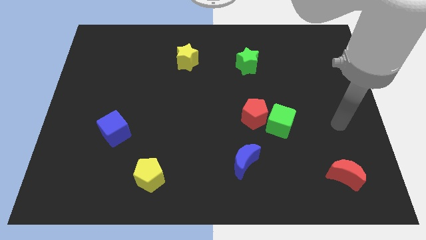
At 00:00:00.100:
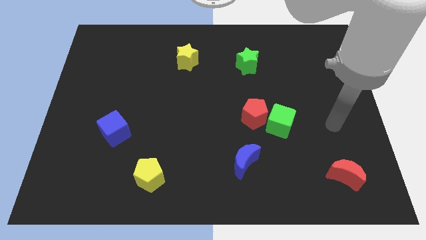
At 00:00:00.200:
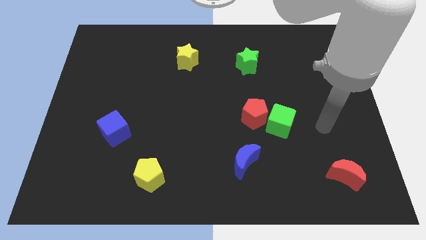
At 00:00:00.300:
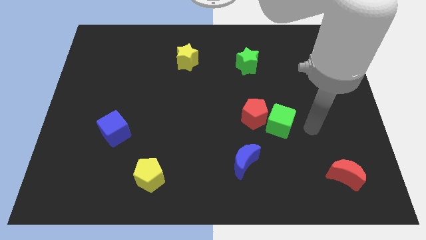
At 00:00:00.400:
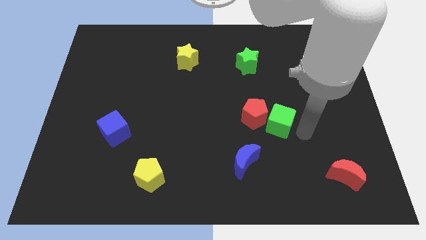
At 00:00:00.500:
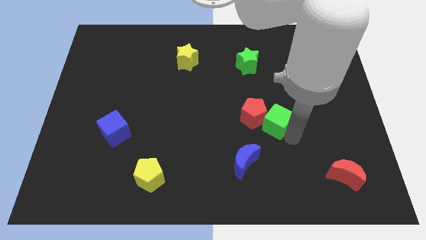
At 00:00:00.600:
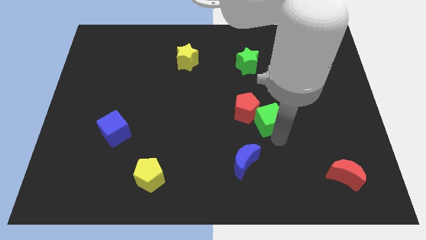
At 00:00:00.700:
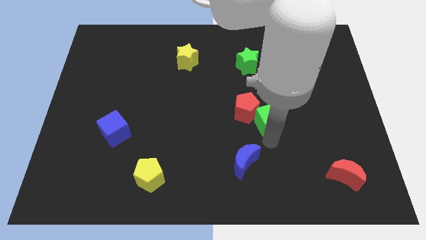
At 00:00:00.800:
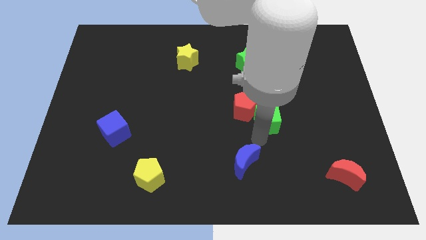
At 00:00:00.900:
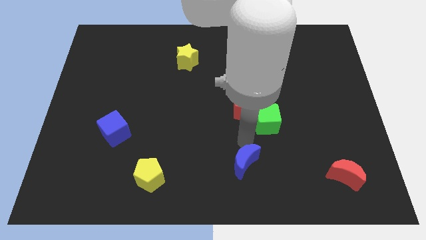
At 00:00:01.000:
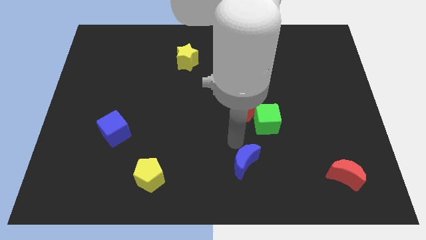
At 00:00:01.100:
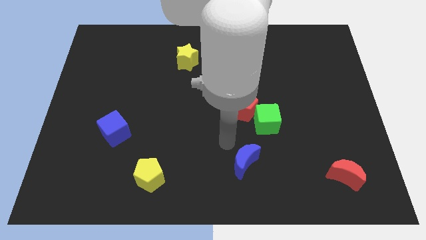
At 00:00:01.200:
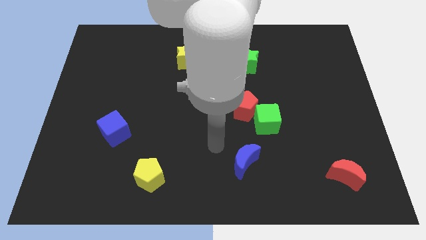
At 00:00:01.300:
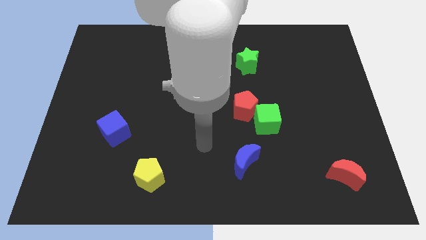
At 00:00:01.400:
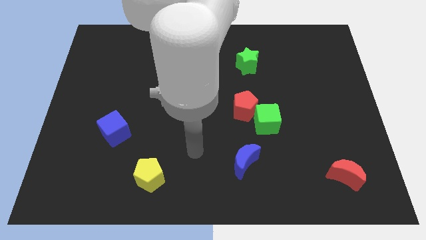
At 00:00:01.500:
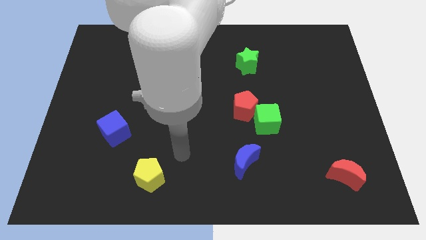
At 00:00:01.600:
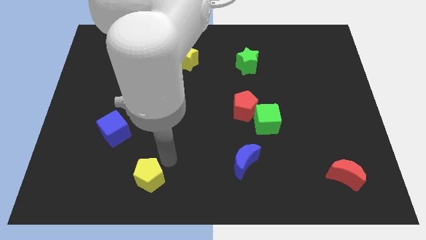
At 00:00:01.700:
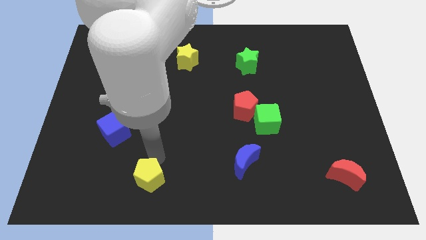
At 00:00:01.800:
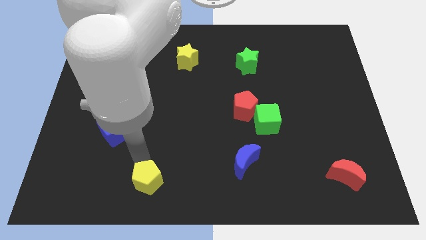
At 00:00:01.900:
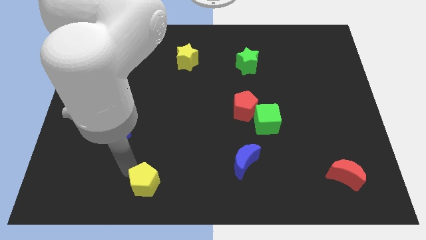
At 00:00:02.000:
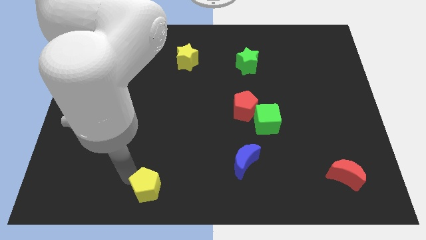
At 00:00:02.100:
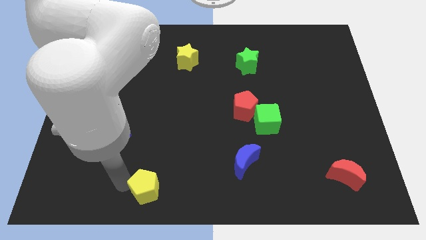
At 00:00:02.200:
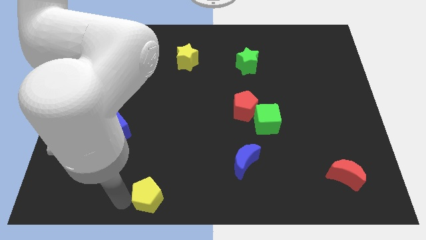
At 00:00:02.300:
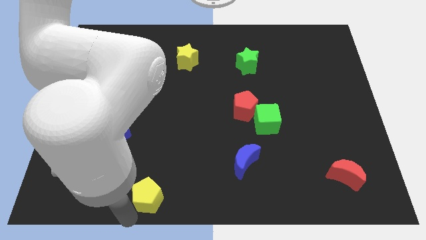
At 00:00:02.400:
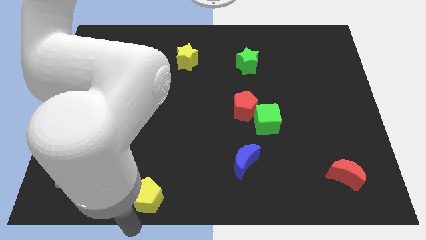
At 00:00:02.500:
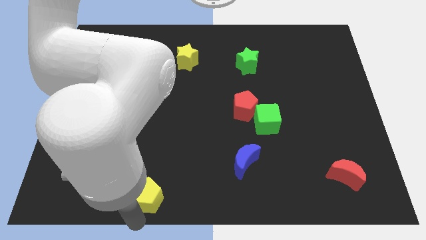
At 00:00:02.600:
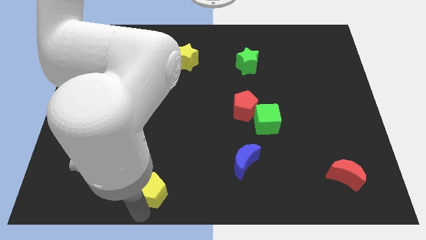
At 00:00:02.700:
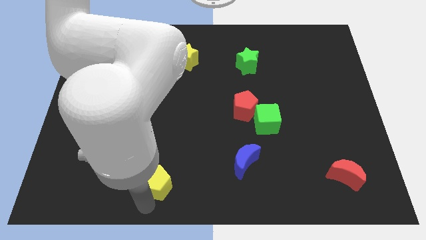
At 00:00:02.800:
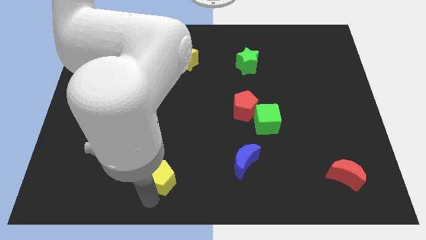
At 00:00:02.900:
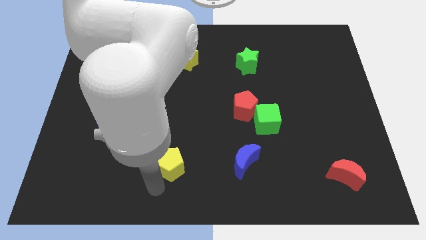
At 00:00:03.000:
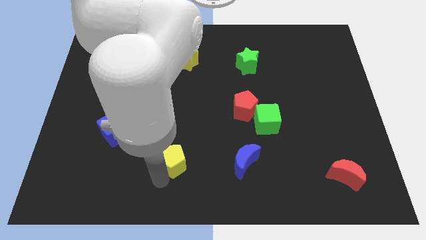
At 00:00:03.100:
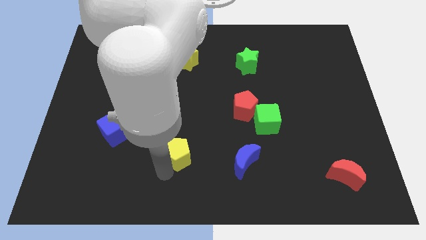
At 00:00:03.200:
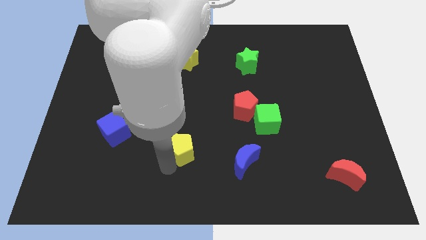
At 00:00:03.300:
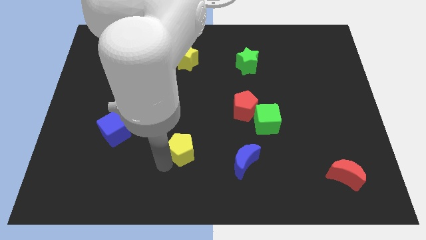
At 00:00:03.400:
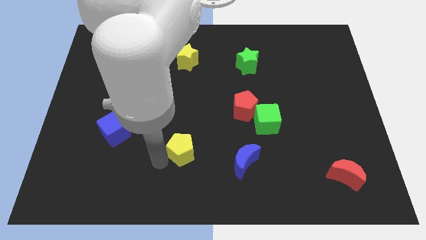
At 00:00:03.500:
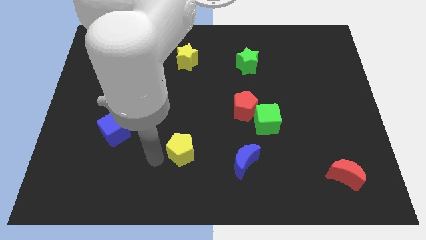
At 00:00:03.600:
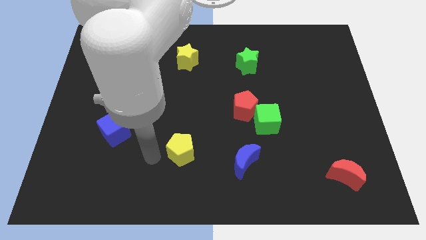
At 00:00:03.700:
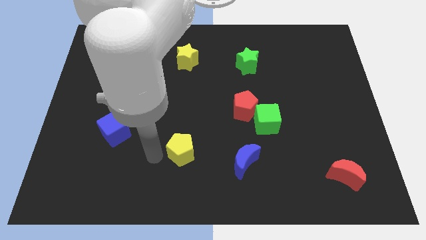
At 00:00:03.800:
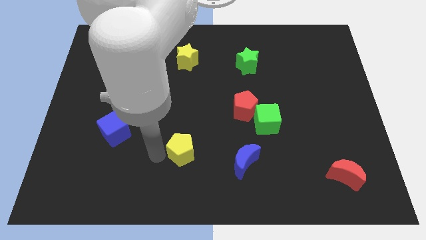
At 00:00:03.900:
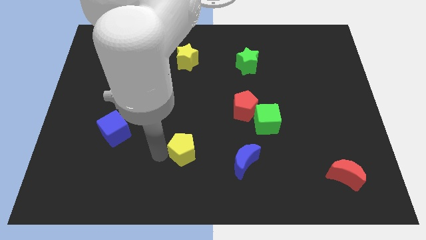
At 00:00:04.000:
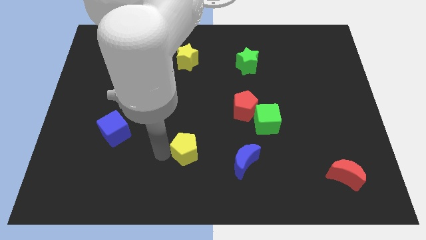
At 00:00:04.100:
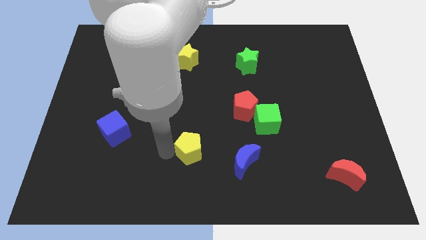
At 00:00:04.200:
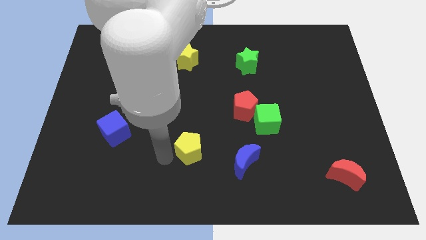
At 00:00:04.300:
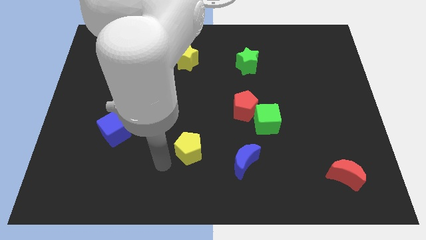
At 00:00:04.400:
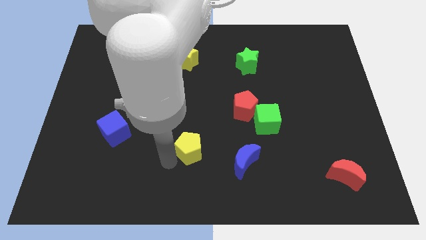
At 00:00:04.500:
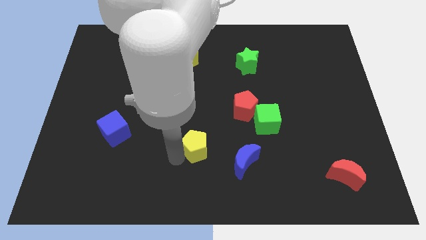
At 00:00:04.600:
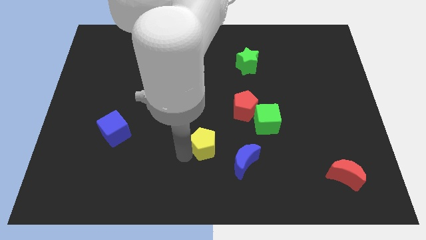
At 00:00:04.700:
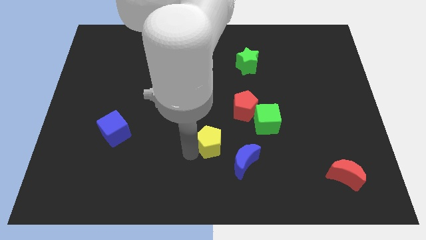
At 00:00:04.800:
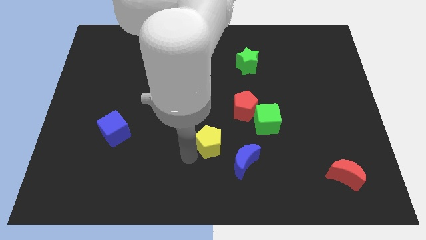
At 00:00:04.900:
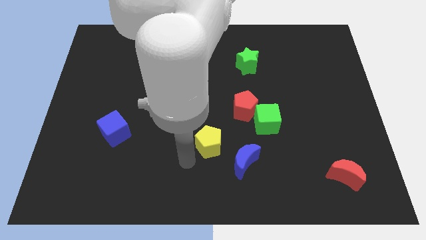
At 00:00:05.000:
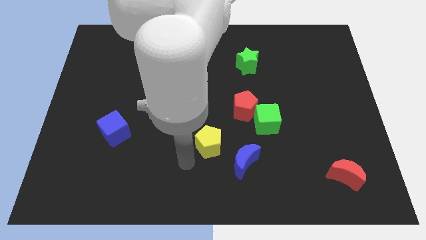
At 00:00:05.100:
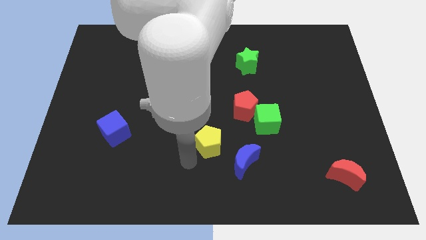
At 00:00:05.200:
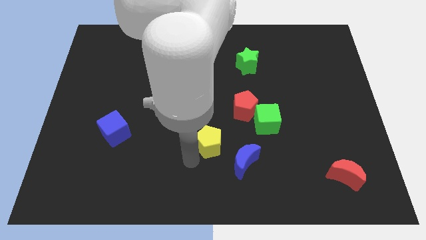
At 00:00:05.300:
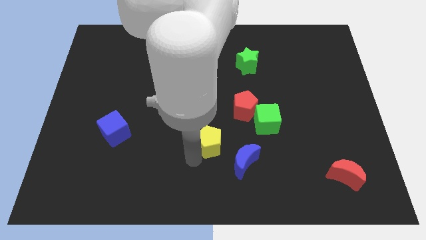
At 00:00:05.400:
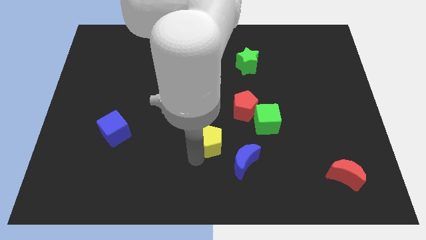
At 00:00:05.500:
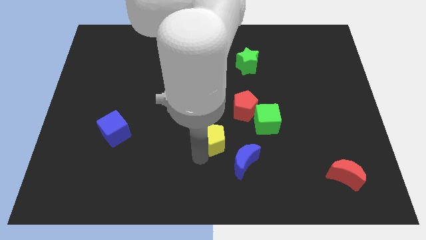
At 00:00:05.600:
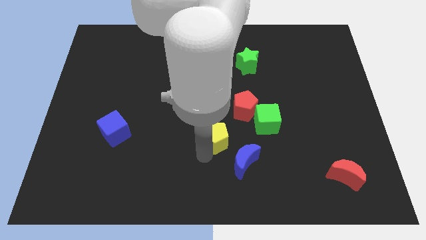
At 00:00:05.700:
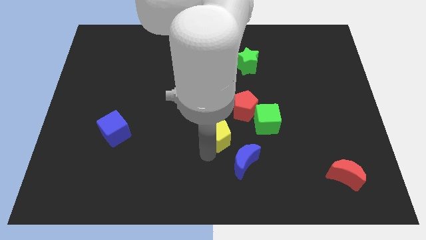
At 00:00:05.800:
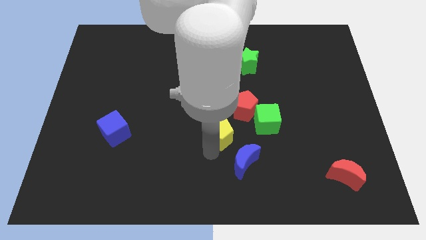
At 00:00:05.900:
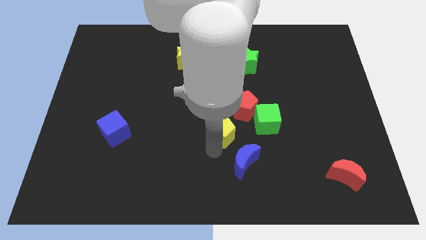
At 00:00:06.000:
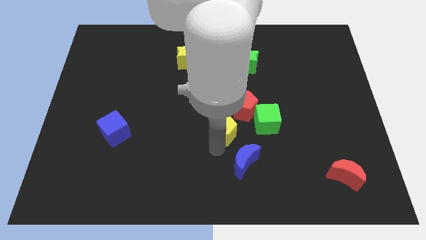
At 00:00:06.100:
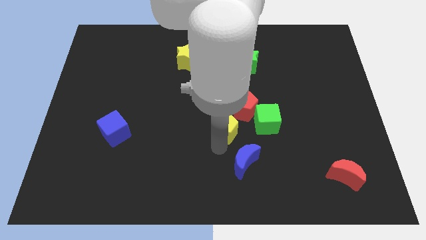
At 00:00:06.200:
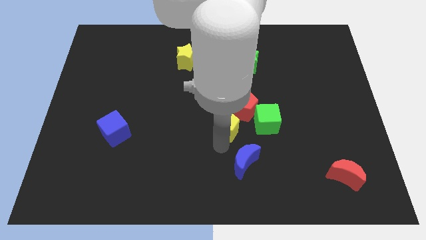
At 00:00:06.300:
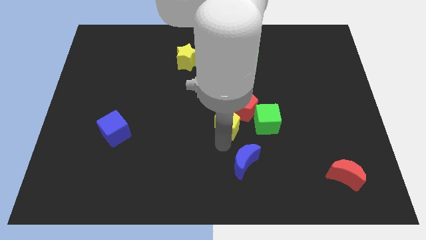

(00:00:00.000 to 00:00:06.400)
move the yellow pentagon up and to the right diagonally

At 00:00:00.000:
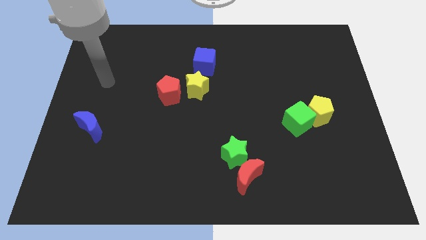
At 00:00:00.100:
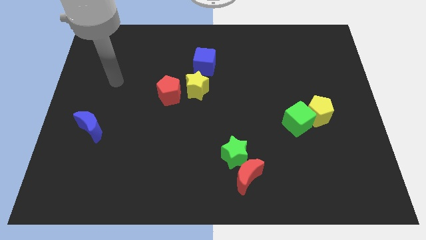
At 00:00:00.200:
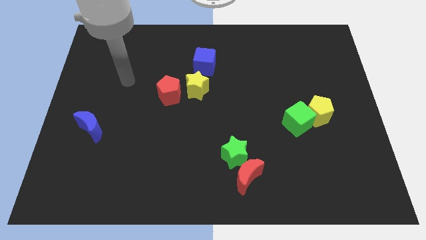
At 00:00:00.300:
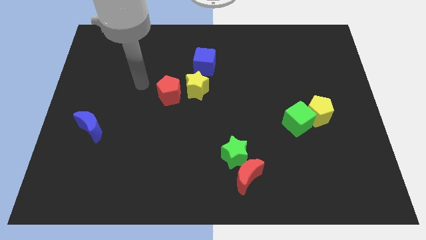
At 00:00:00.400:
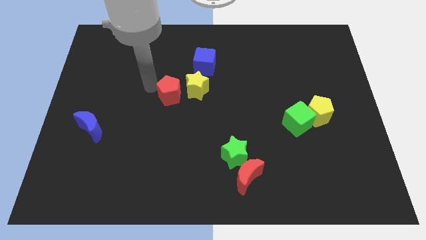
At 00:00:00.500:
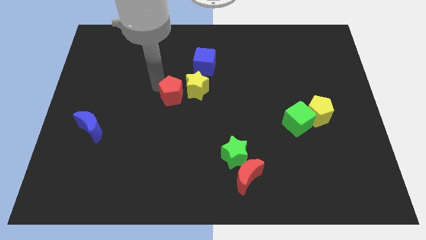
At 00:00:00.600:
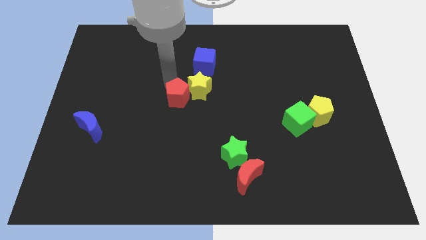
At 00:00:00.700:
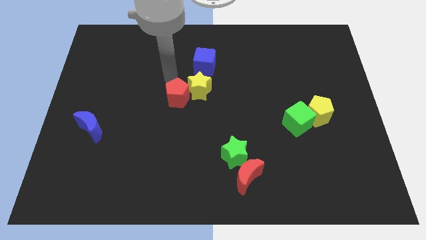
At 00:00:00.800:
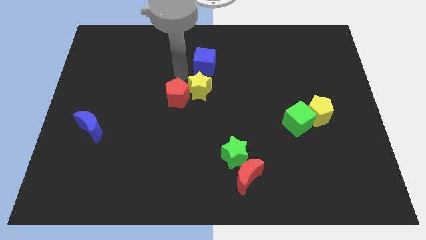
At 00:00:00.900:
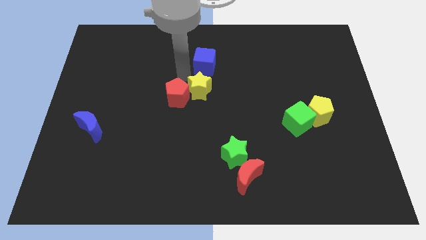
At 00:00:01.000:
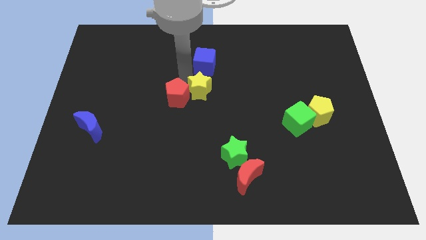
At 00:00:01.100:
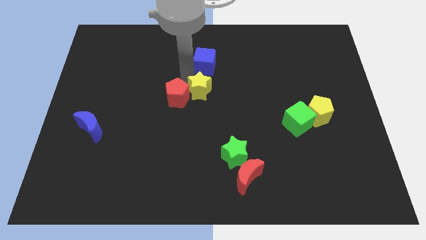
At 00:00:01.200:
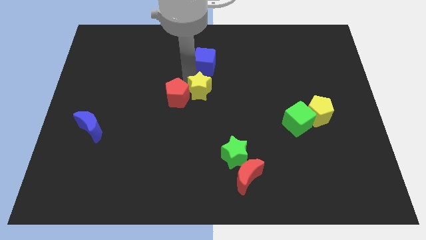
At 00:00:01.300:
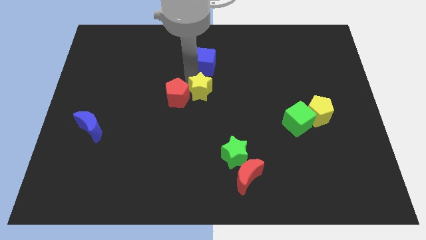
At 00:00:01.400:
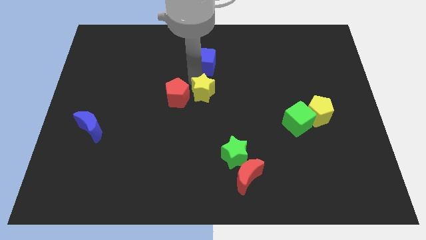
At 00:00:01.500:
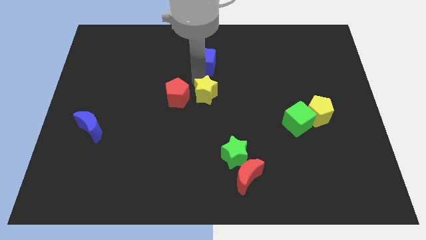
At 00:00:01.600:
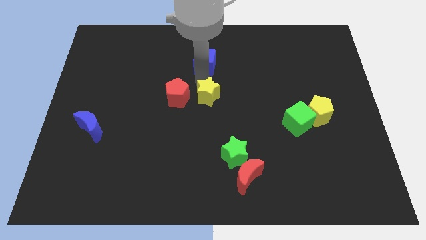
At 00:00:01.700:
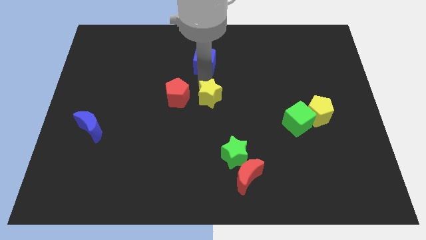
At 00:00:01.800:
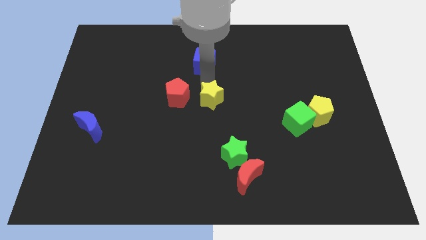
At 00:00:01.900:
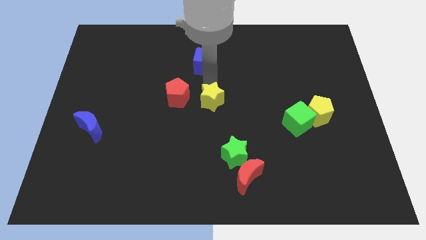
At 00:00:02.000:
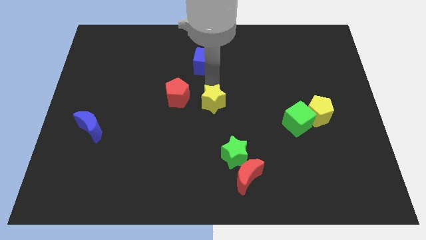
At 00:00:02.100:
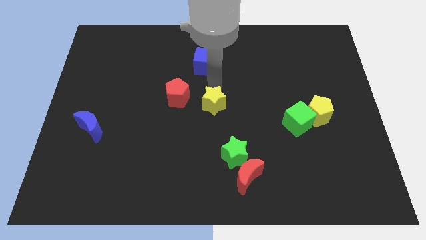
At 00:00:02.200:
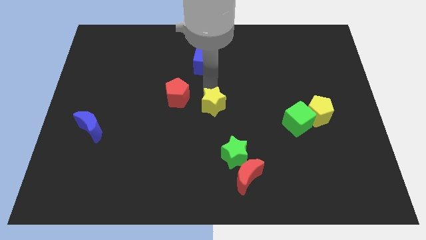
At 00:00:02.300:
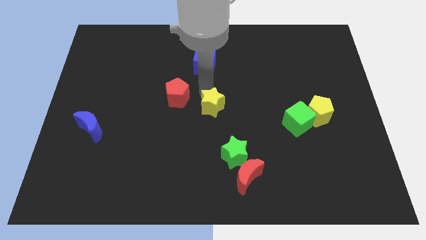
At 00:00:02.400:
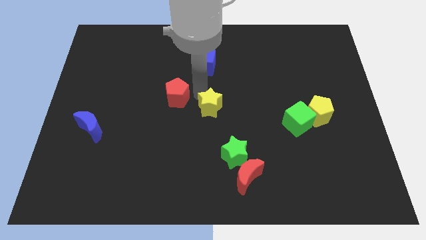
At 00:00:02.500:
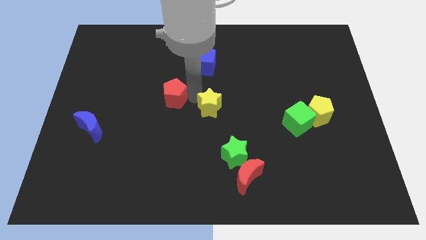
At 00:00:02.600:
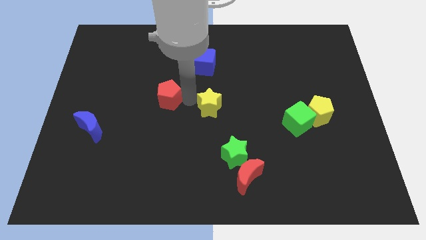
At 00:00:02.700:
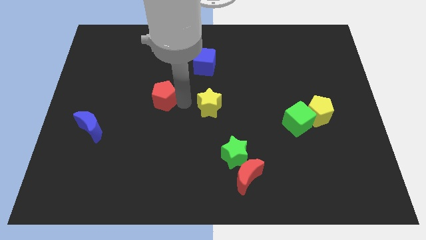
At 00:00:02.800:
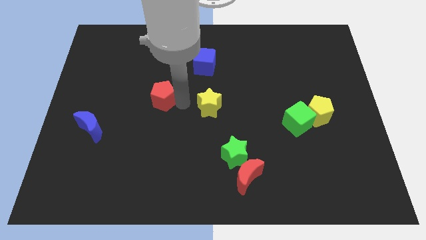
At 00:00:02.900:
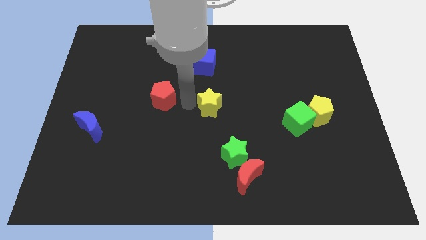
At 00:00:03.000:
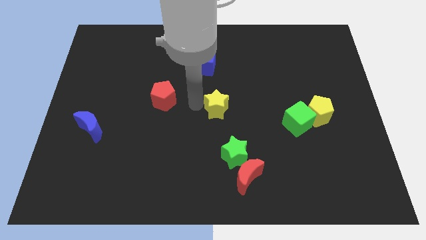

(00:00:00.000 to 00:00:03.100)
slide the yellow star down and then to the right slightly
